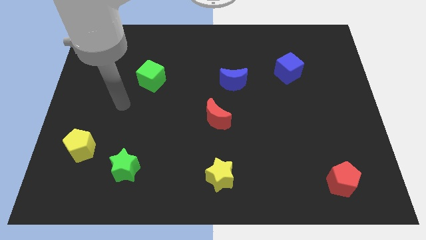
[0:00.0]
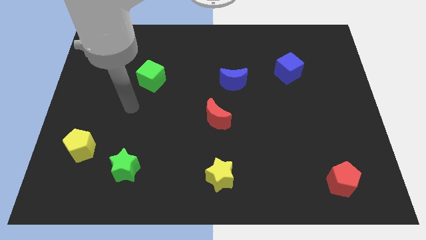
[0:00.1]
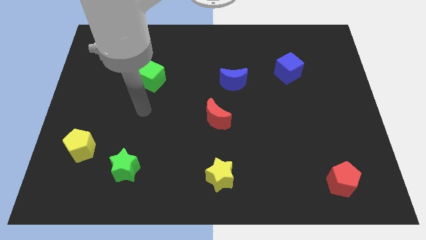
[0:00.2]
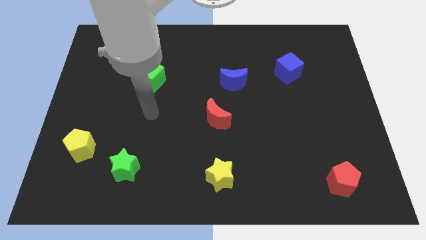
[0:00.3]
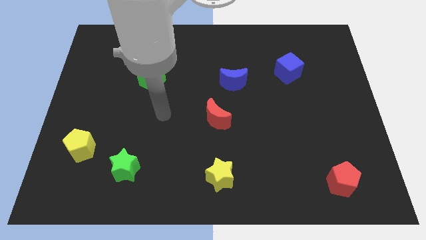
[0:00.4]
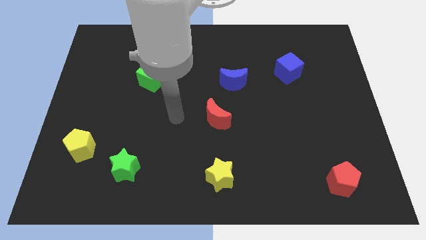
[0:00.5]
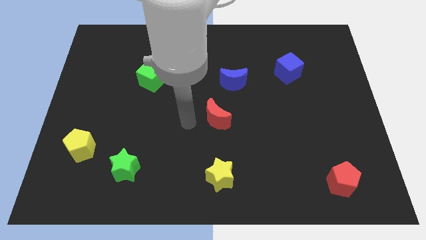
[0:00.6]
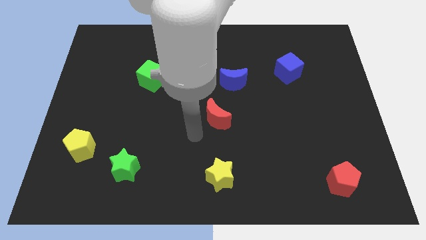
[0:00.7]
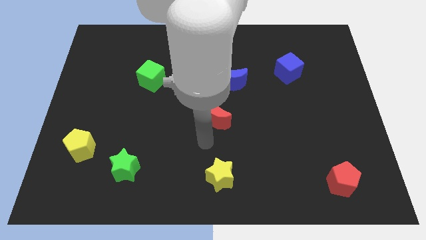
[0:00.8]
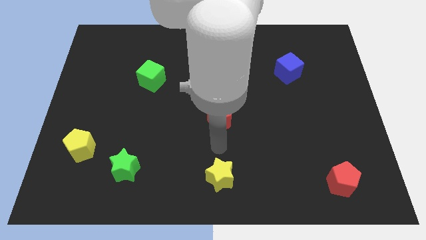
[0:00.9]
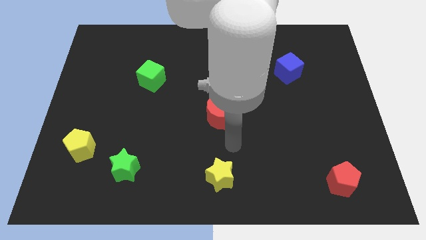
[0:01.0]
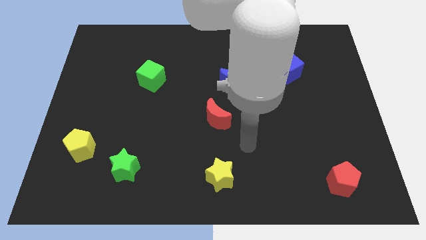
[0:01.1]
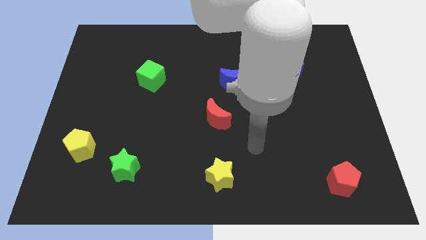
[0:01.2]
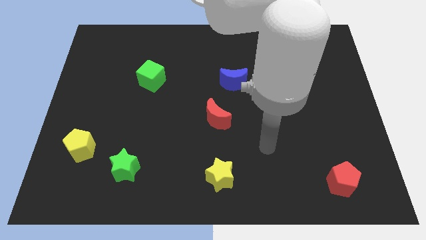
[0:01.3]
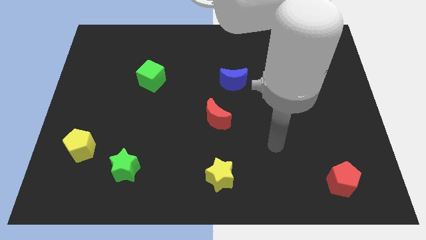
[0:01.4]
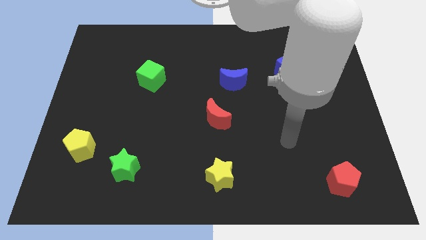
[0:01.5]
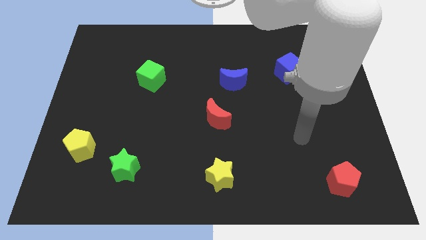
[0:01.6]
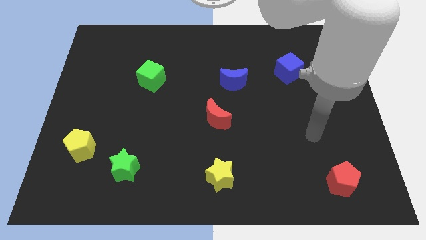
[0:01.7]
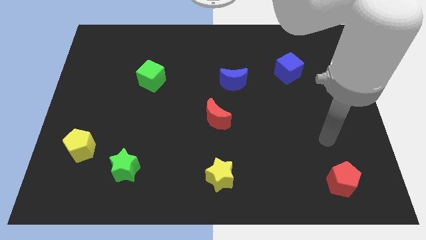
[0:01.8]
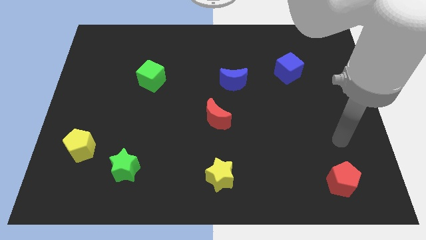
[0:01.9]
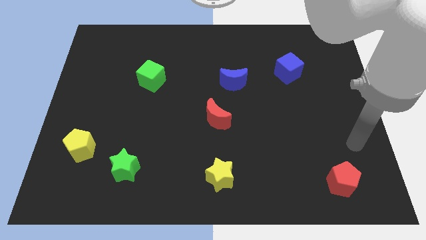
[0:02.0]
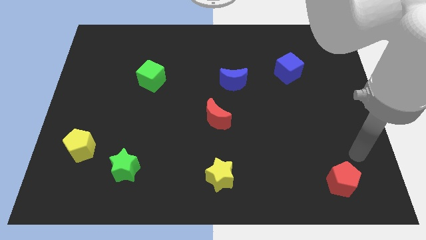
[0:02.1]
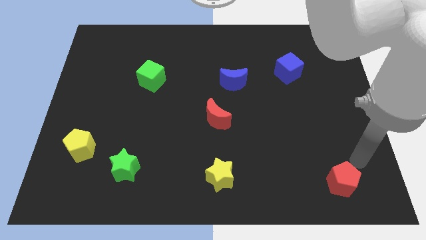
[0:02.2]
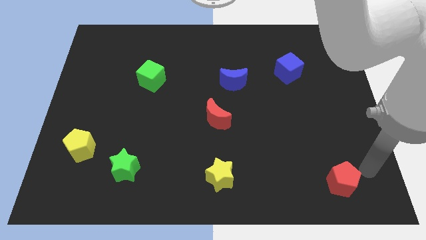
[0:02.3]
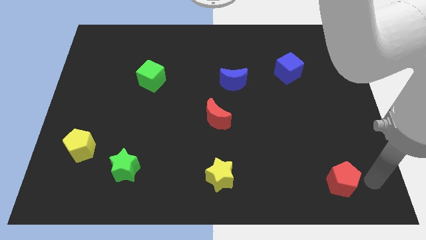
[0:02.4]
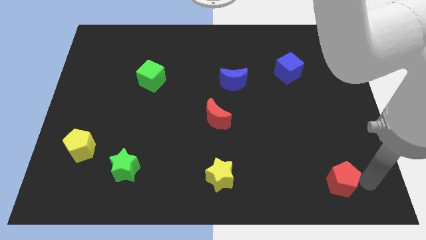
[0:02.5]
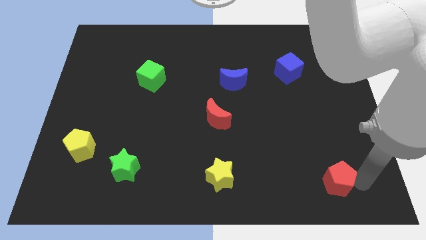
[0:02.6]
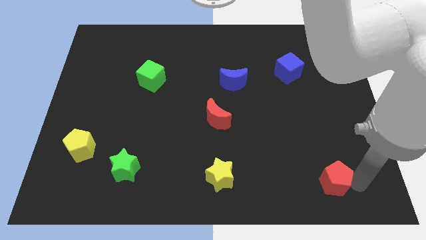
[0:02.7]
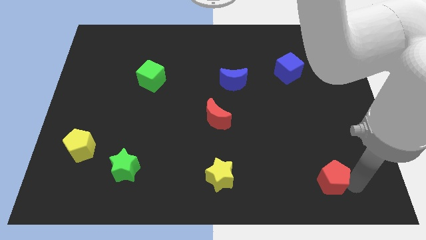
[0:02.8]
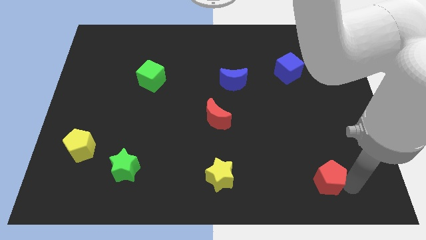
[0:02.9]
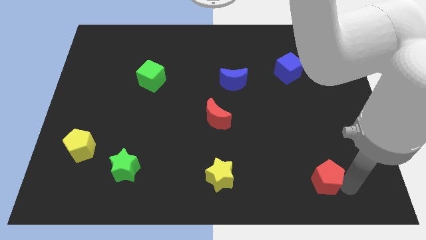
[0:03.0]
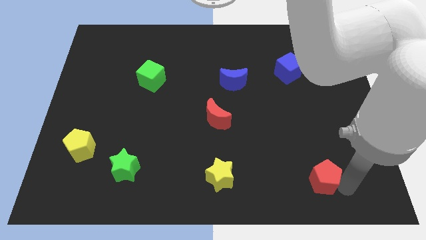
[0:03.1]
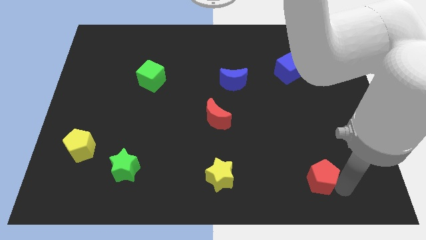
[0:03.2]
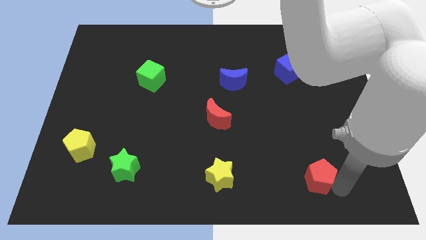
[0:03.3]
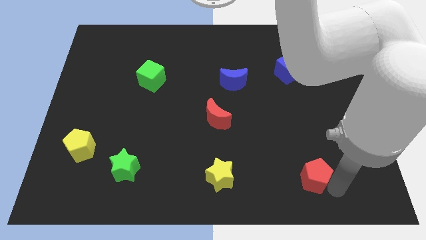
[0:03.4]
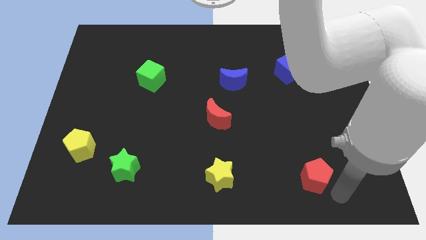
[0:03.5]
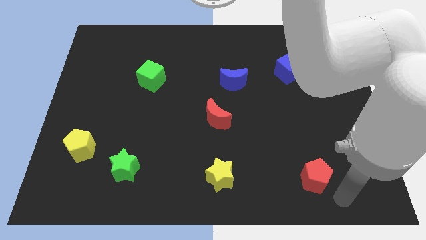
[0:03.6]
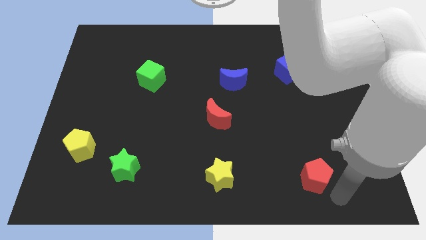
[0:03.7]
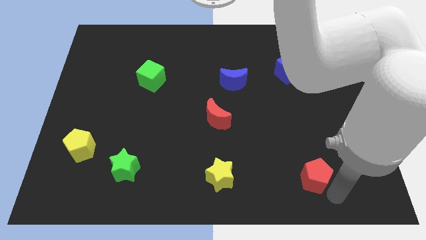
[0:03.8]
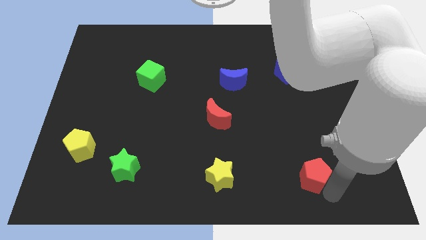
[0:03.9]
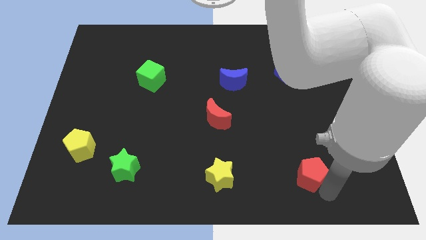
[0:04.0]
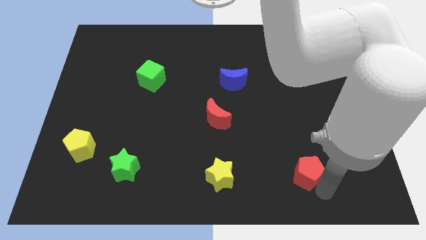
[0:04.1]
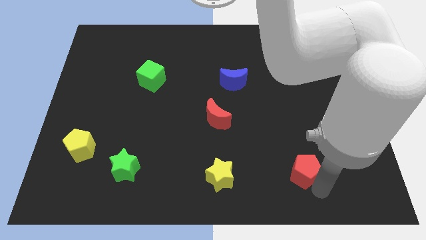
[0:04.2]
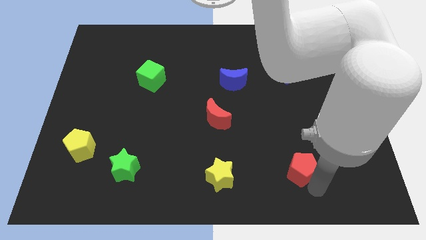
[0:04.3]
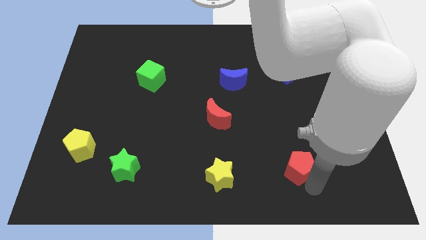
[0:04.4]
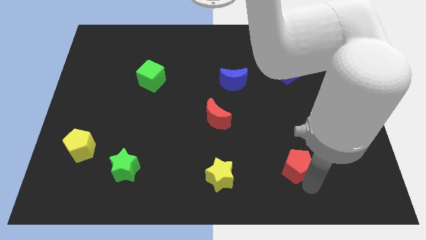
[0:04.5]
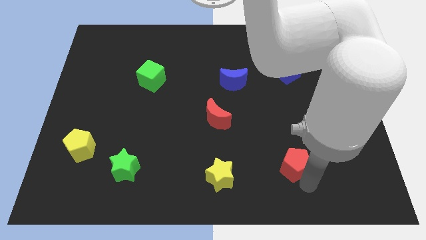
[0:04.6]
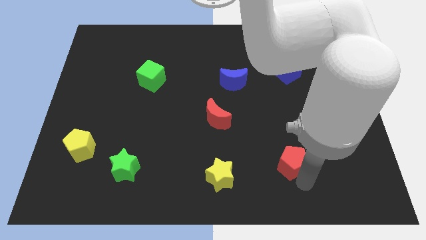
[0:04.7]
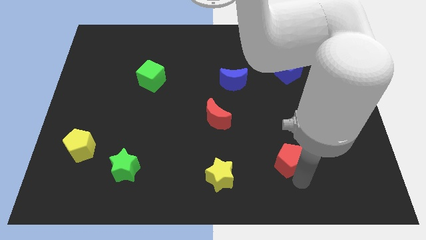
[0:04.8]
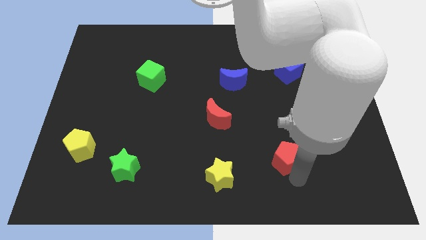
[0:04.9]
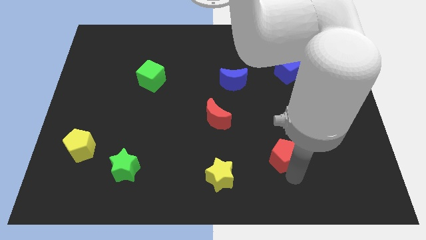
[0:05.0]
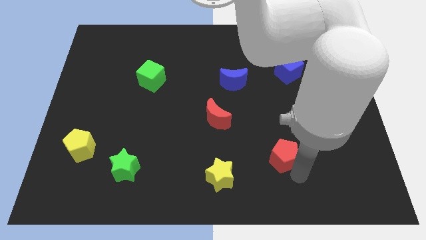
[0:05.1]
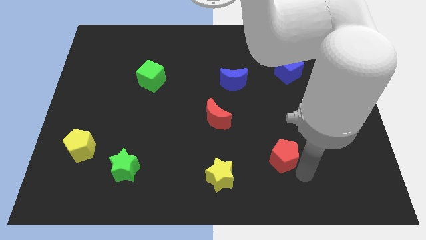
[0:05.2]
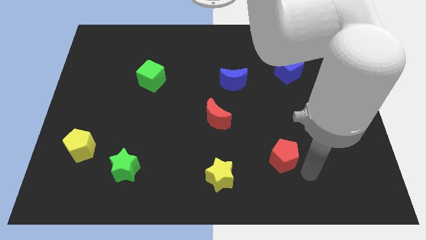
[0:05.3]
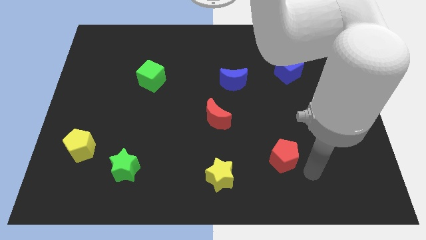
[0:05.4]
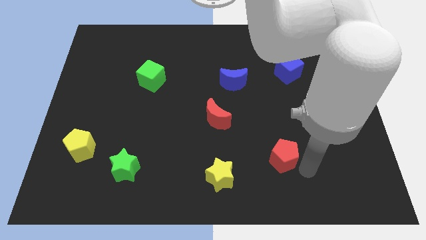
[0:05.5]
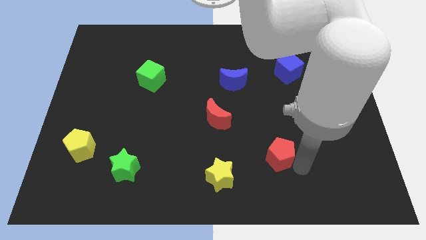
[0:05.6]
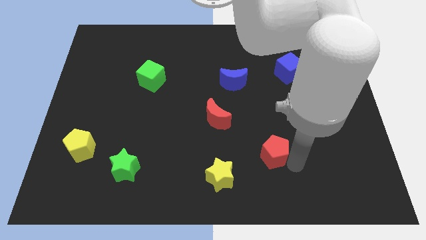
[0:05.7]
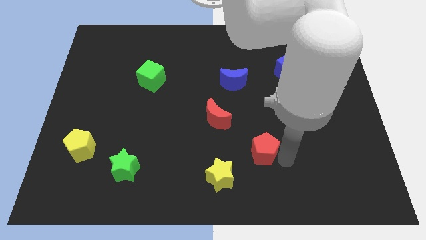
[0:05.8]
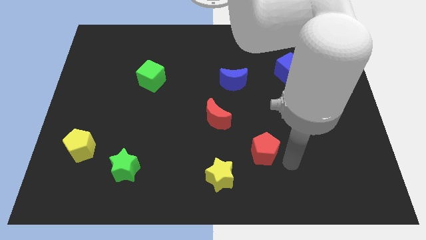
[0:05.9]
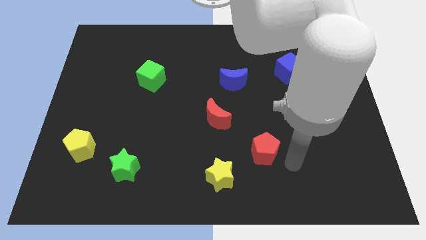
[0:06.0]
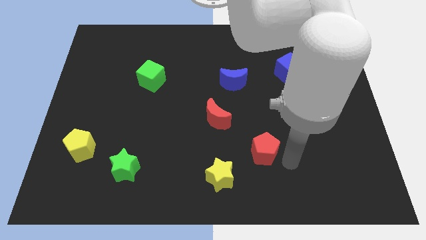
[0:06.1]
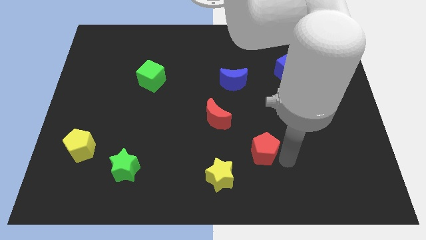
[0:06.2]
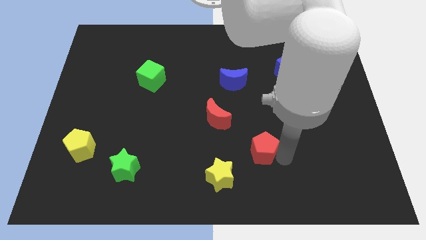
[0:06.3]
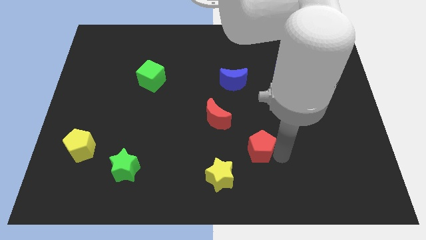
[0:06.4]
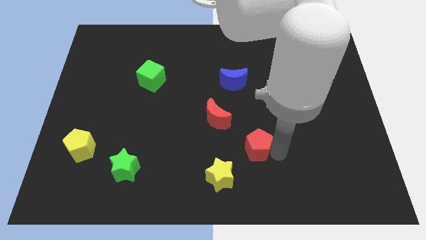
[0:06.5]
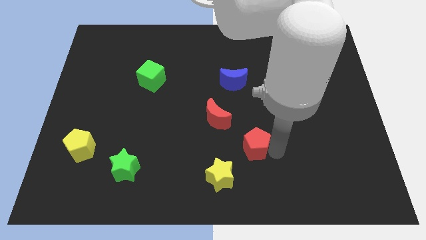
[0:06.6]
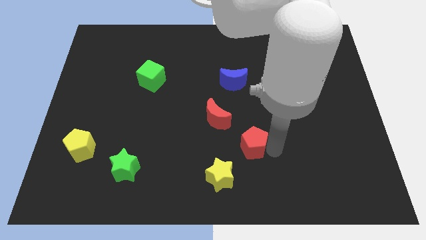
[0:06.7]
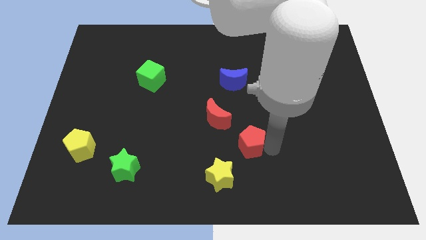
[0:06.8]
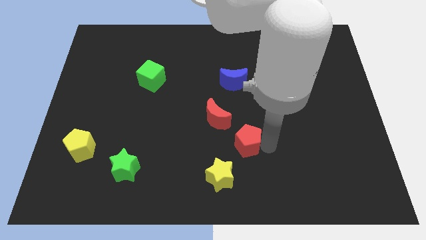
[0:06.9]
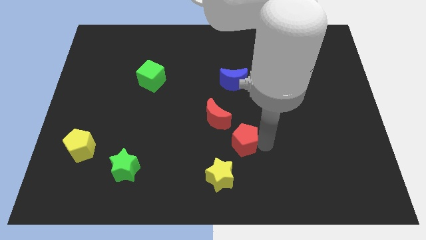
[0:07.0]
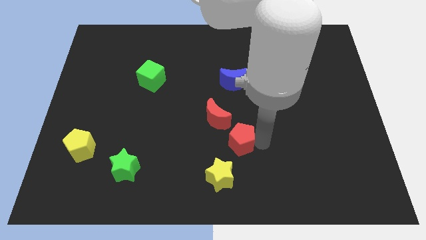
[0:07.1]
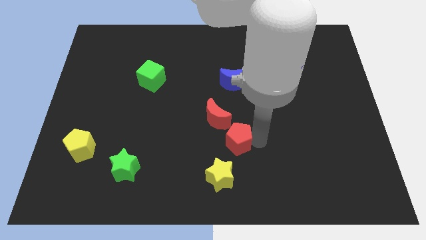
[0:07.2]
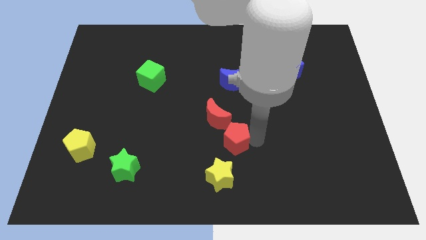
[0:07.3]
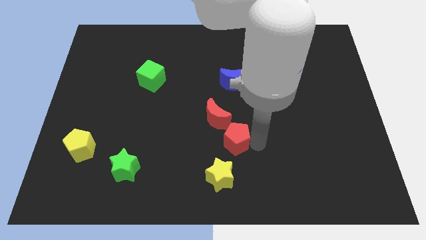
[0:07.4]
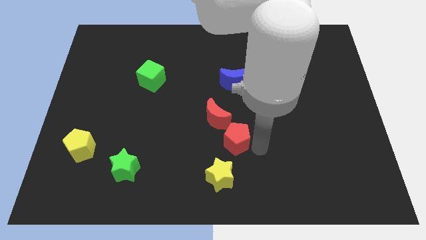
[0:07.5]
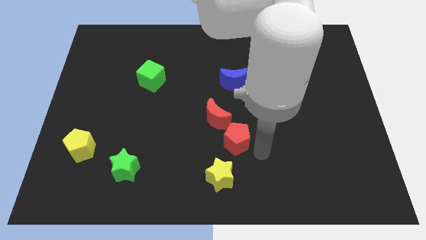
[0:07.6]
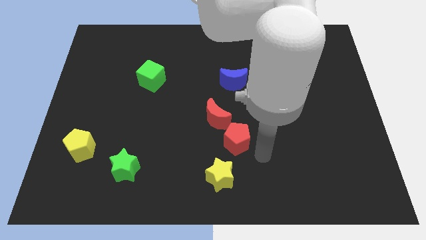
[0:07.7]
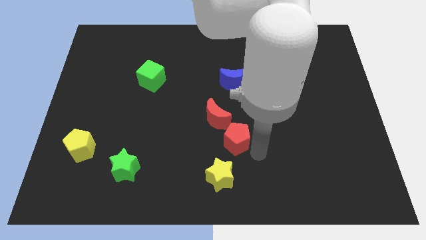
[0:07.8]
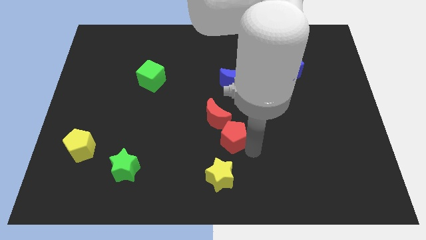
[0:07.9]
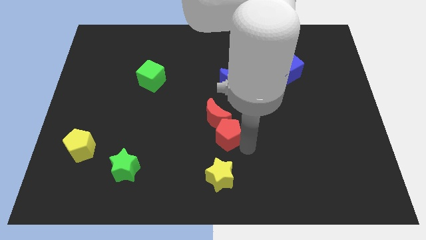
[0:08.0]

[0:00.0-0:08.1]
move the red pentagon next to the red moon
